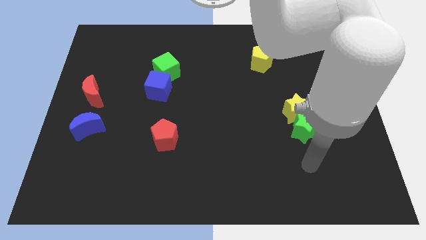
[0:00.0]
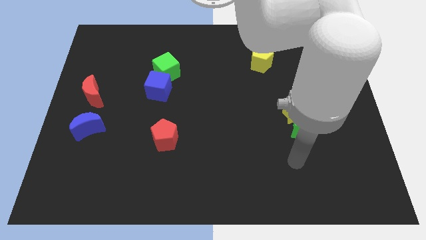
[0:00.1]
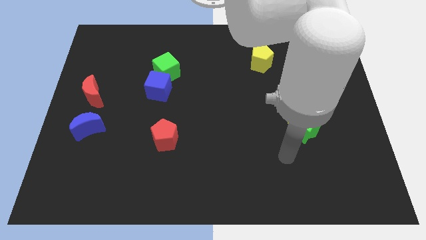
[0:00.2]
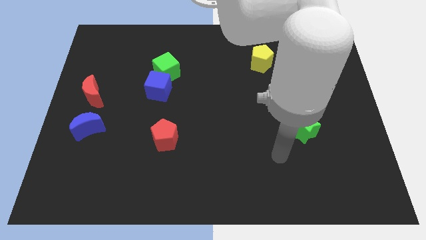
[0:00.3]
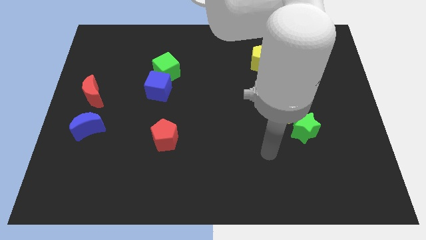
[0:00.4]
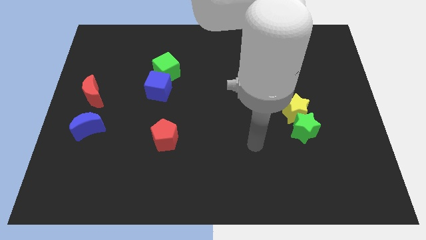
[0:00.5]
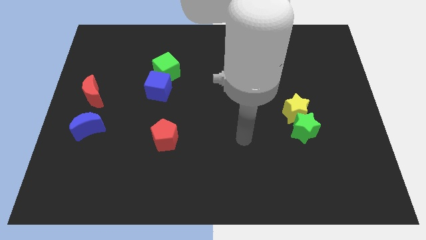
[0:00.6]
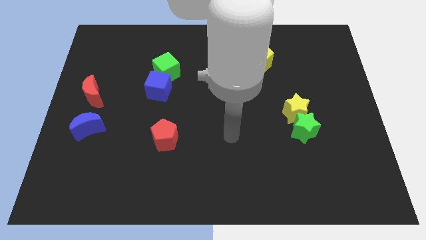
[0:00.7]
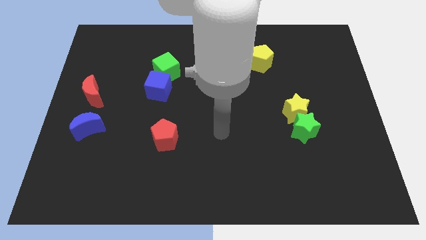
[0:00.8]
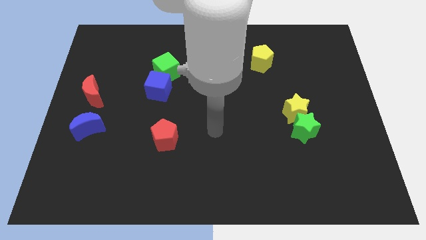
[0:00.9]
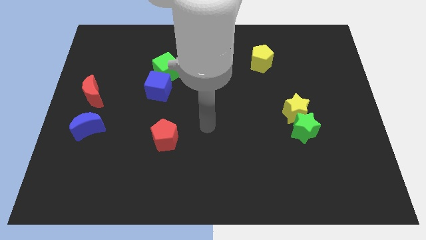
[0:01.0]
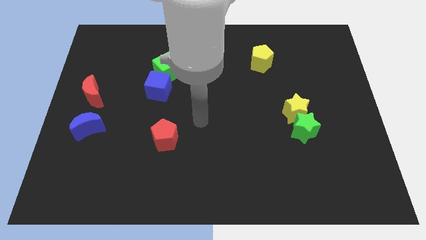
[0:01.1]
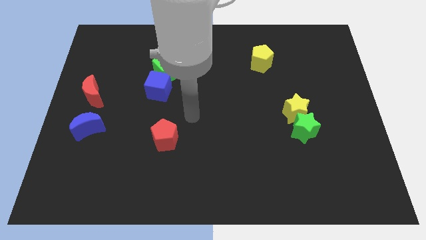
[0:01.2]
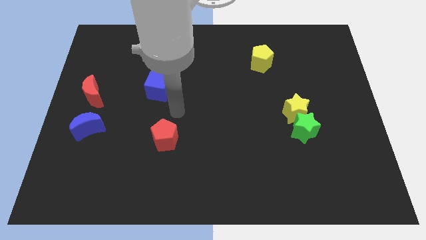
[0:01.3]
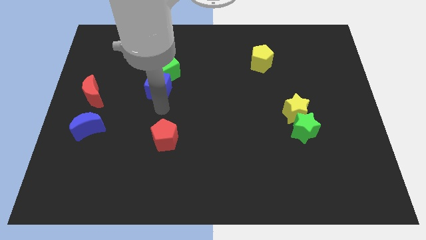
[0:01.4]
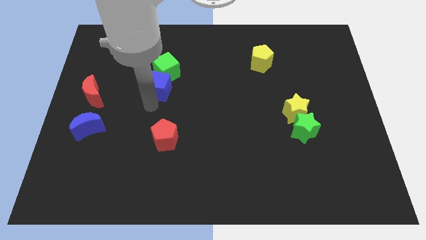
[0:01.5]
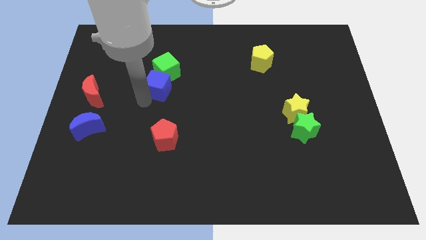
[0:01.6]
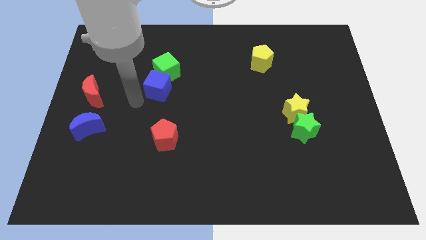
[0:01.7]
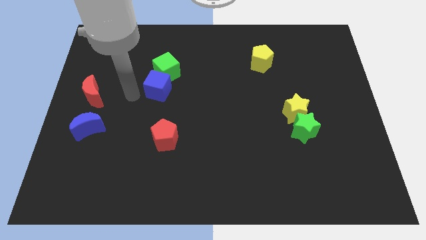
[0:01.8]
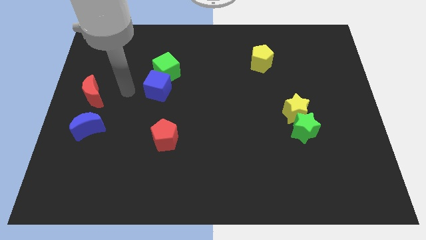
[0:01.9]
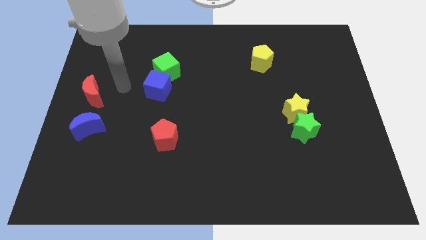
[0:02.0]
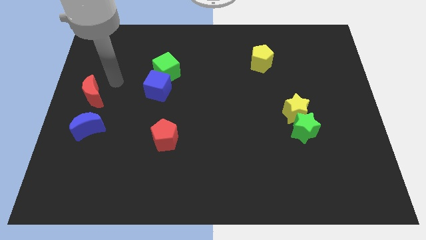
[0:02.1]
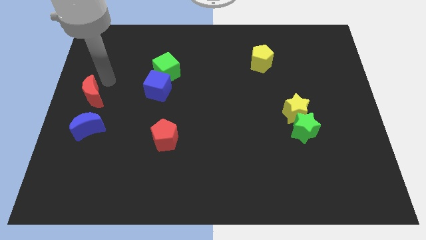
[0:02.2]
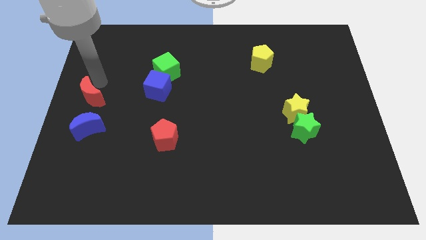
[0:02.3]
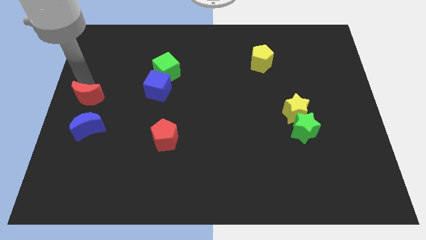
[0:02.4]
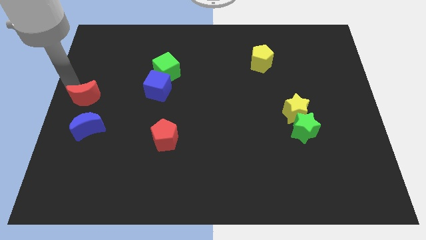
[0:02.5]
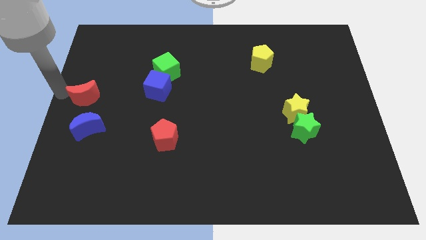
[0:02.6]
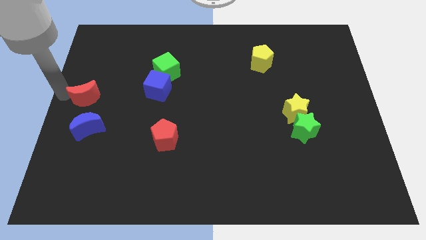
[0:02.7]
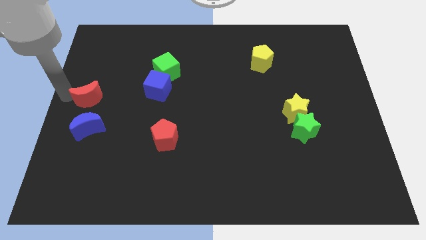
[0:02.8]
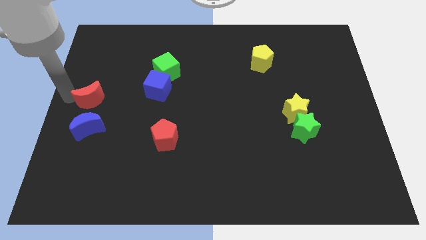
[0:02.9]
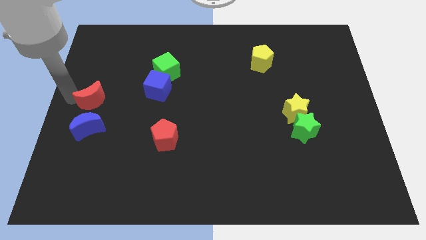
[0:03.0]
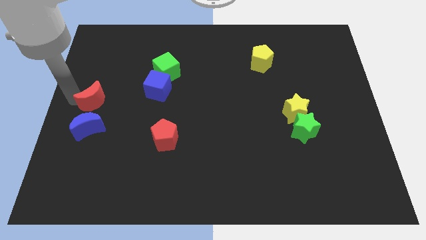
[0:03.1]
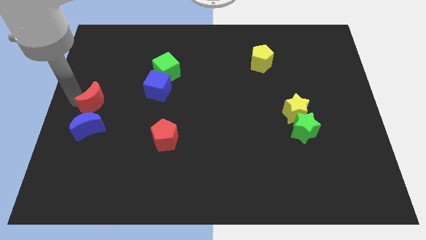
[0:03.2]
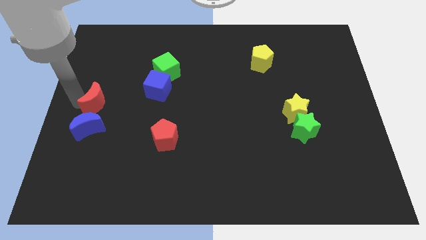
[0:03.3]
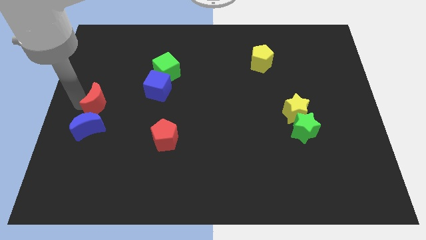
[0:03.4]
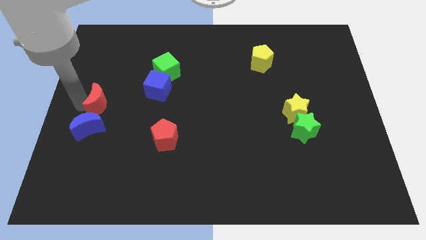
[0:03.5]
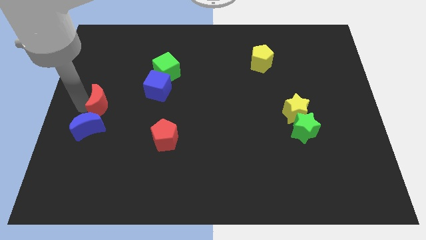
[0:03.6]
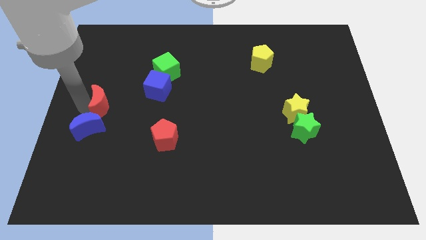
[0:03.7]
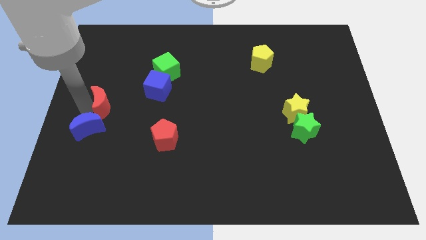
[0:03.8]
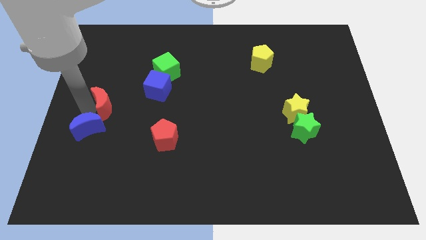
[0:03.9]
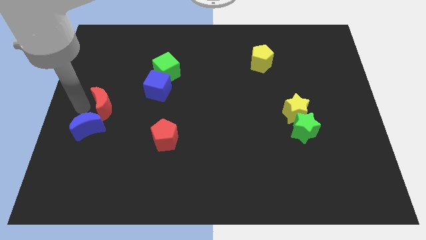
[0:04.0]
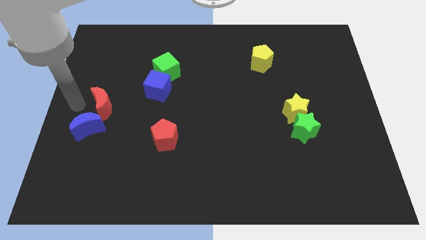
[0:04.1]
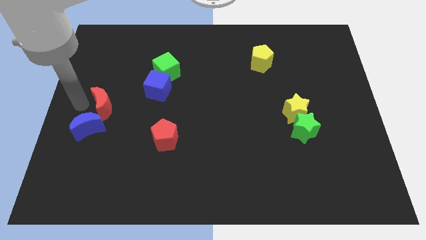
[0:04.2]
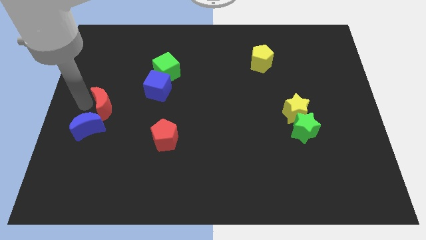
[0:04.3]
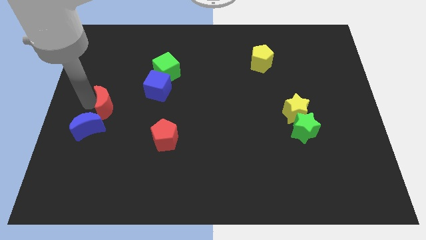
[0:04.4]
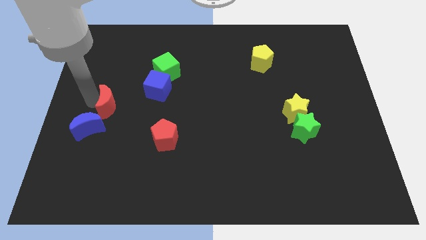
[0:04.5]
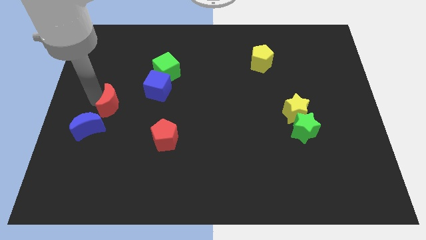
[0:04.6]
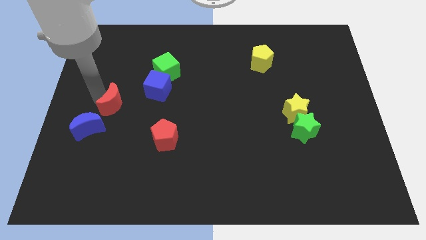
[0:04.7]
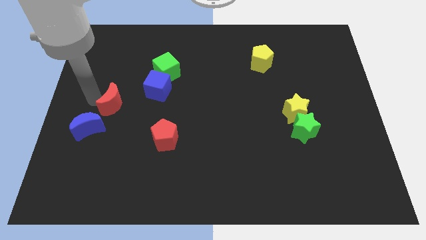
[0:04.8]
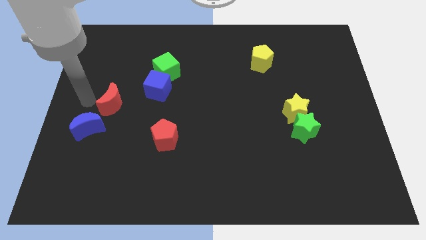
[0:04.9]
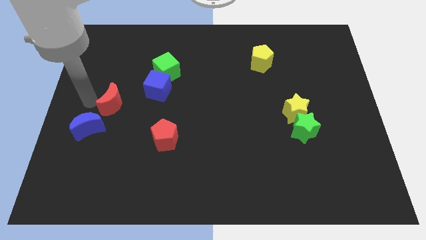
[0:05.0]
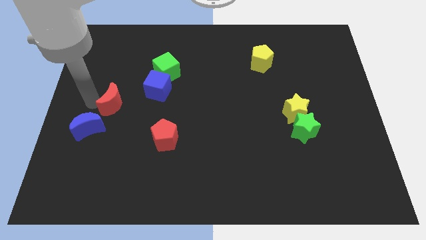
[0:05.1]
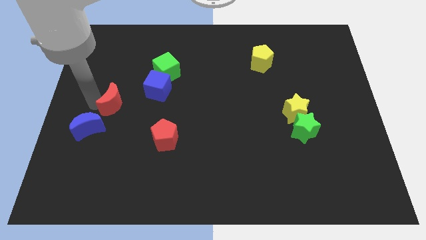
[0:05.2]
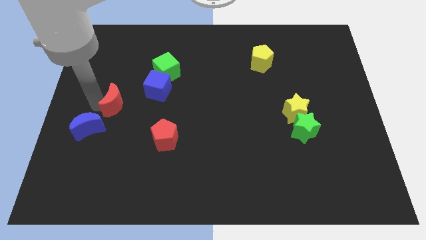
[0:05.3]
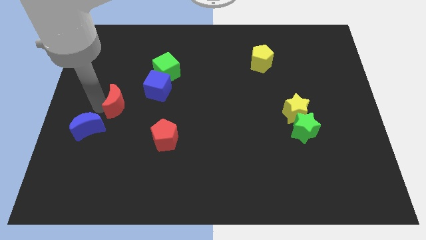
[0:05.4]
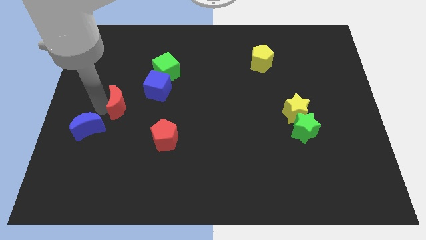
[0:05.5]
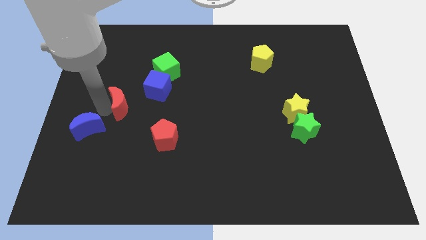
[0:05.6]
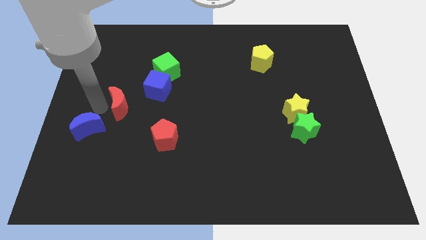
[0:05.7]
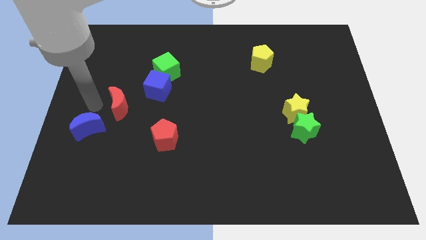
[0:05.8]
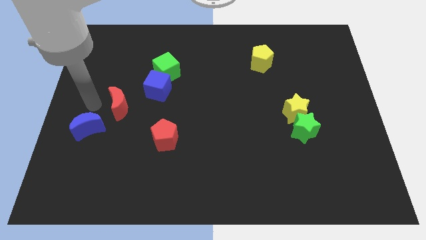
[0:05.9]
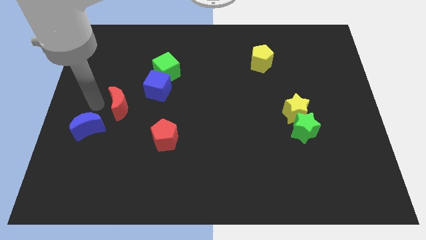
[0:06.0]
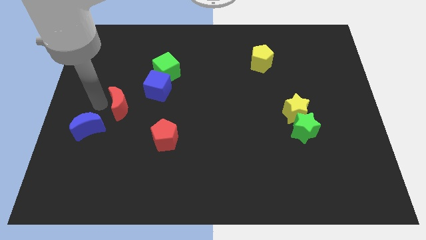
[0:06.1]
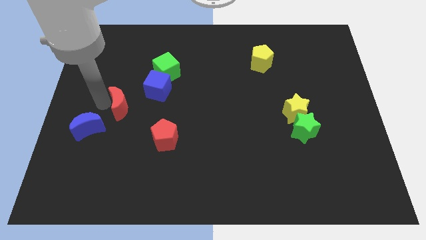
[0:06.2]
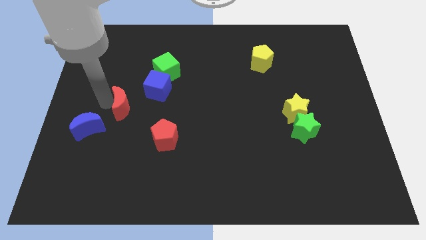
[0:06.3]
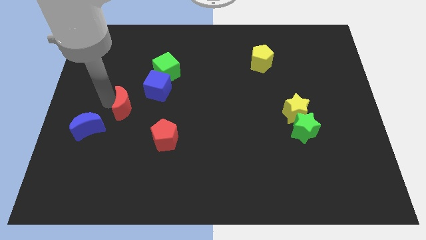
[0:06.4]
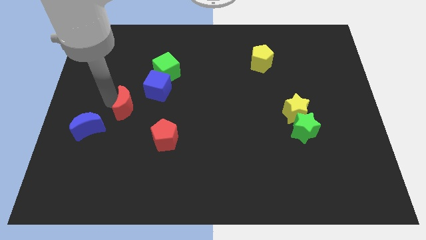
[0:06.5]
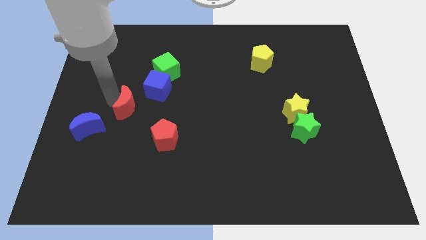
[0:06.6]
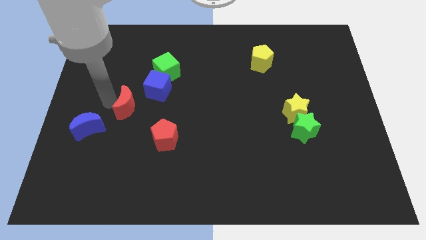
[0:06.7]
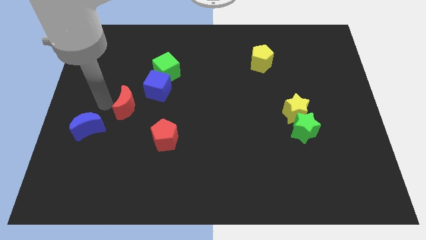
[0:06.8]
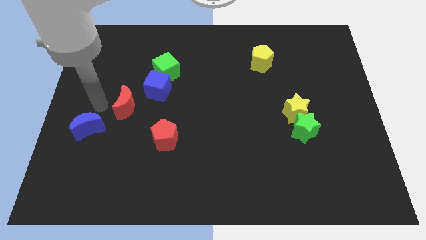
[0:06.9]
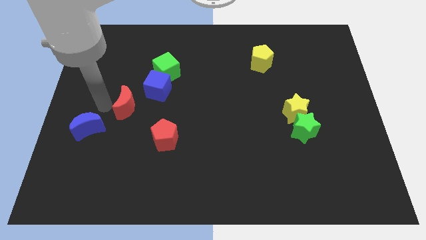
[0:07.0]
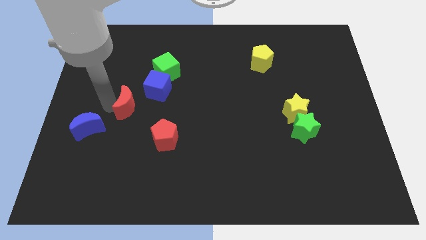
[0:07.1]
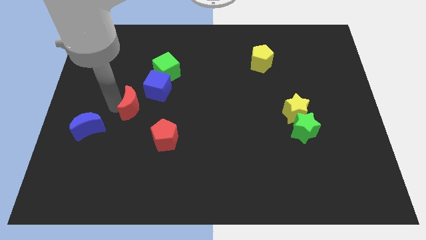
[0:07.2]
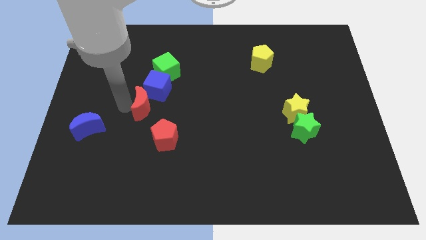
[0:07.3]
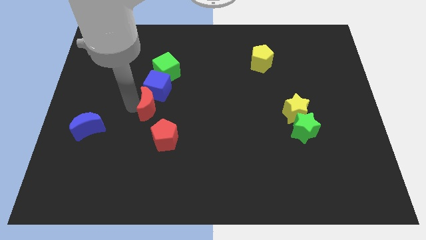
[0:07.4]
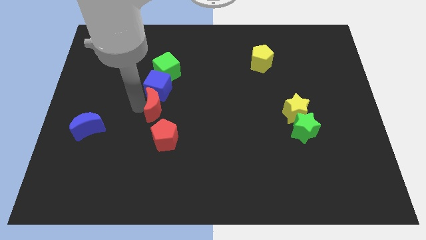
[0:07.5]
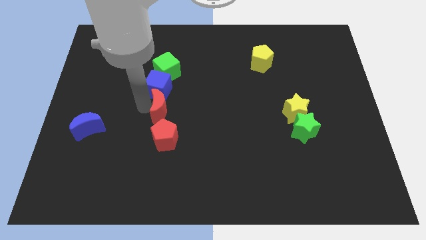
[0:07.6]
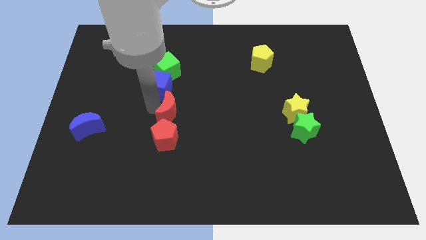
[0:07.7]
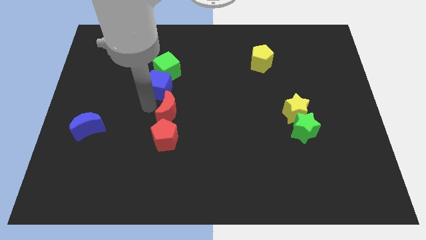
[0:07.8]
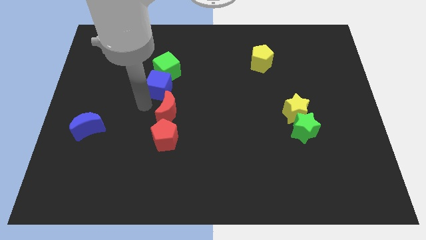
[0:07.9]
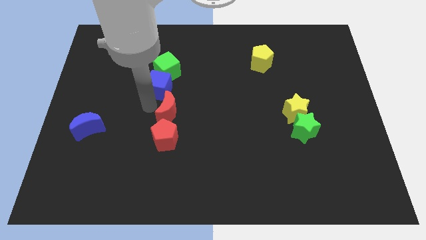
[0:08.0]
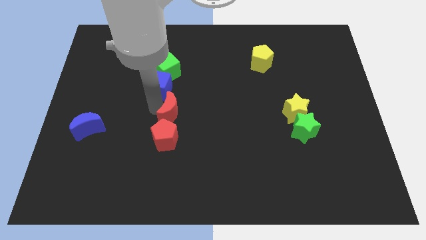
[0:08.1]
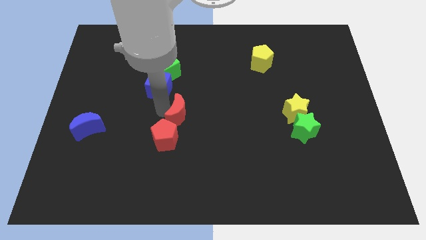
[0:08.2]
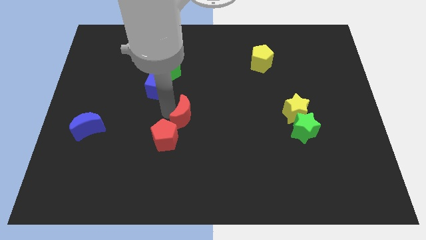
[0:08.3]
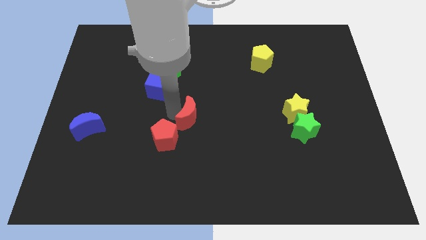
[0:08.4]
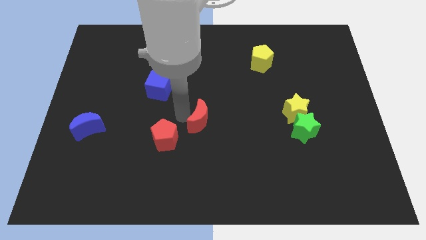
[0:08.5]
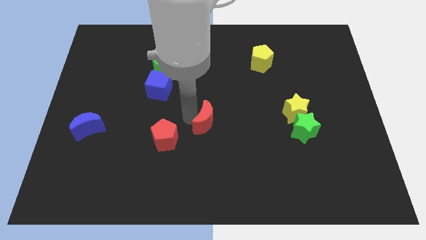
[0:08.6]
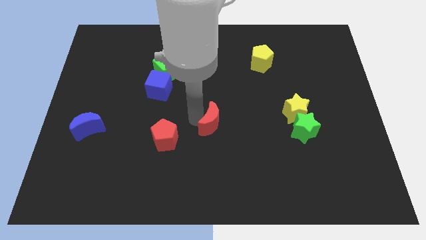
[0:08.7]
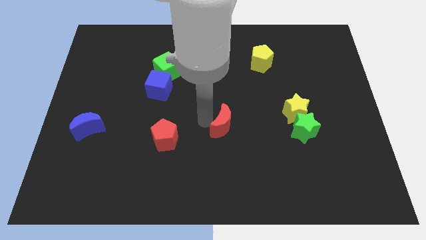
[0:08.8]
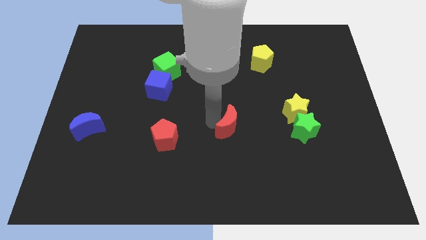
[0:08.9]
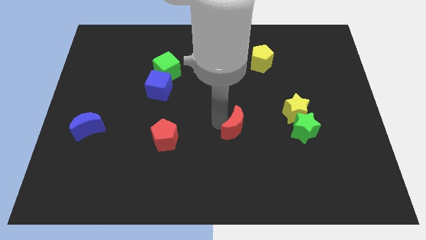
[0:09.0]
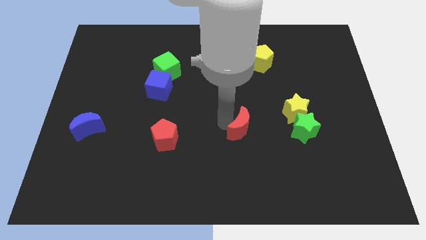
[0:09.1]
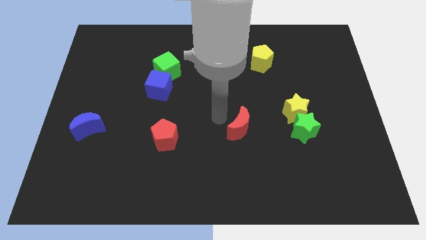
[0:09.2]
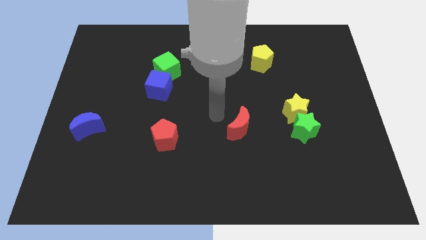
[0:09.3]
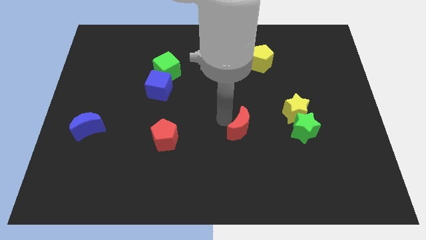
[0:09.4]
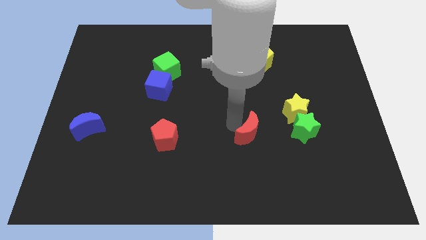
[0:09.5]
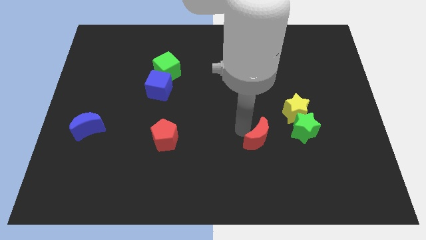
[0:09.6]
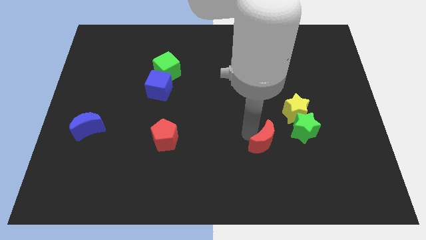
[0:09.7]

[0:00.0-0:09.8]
move the red moon diagonally down and to the left of the green star
